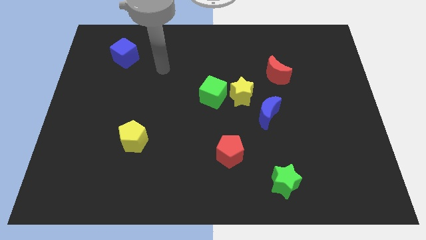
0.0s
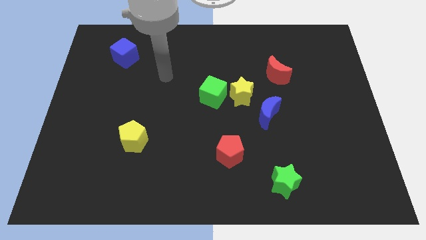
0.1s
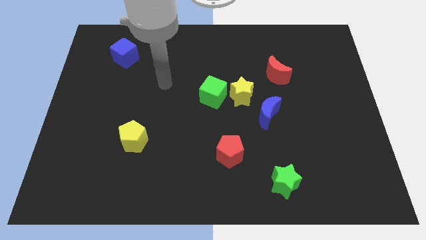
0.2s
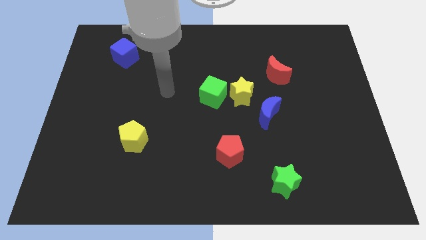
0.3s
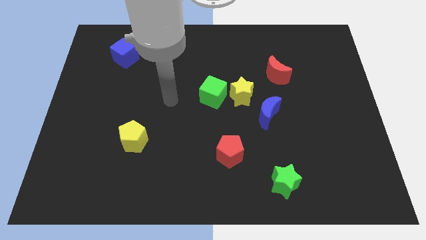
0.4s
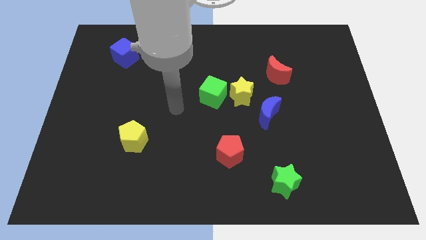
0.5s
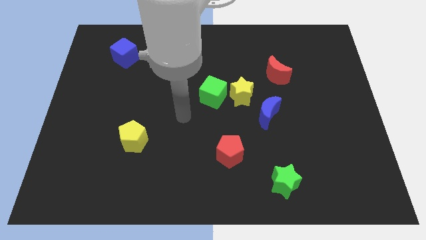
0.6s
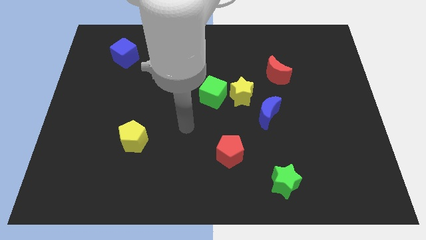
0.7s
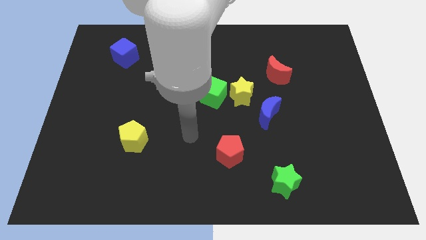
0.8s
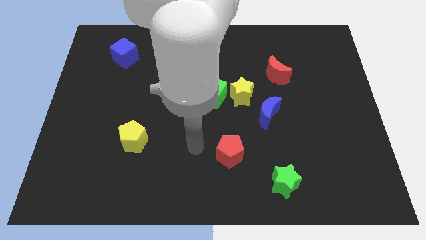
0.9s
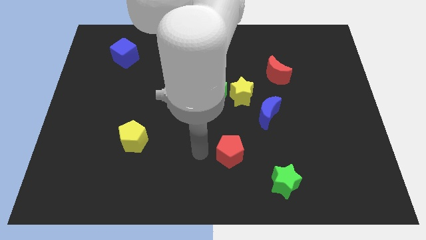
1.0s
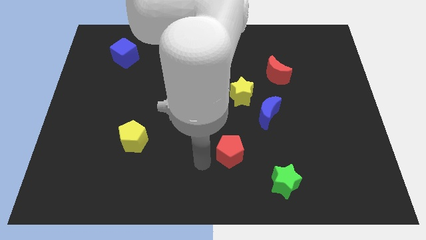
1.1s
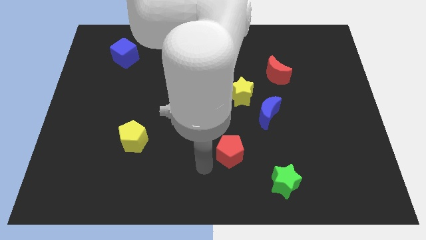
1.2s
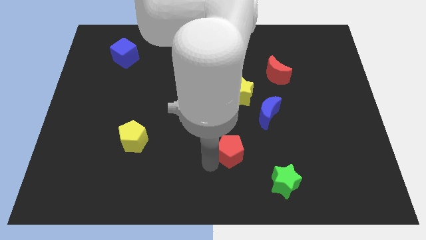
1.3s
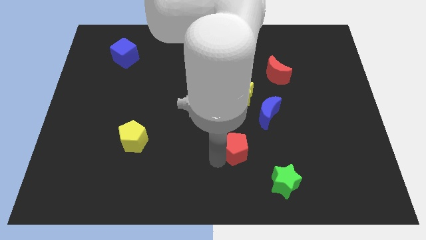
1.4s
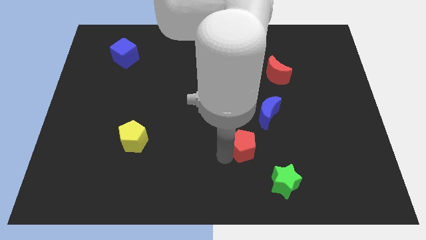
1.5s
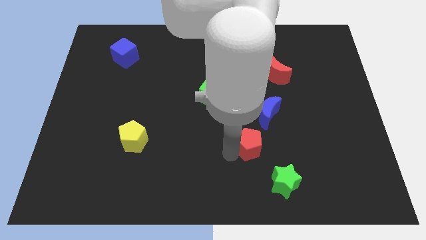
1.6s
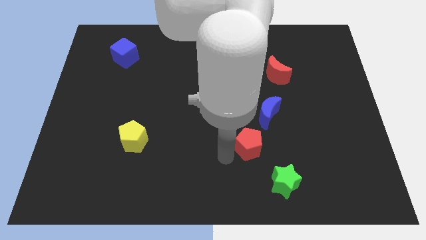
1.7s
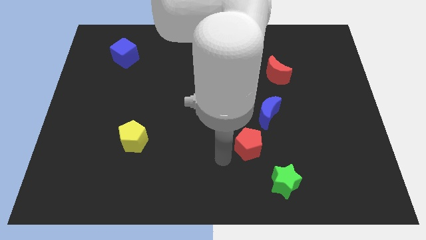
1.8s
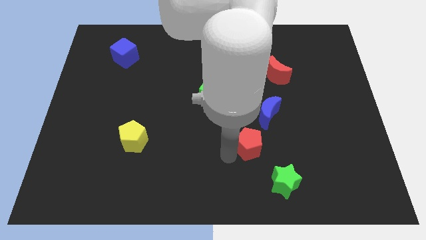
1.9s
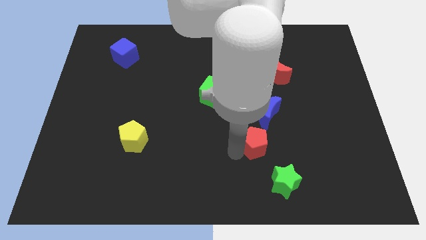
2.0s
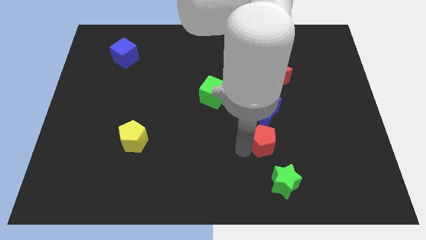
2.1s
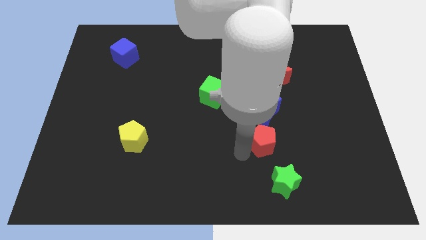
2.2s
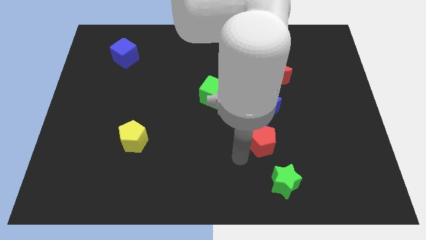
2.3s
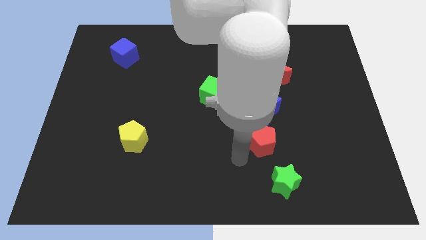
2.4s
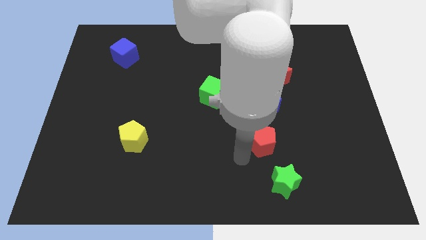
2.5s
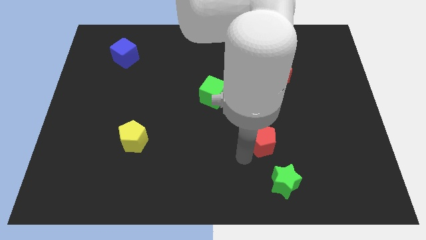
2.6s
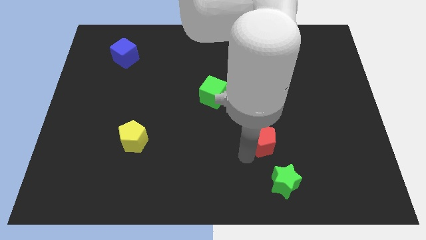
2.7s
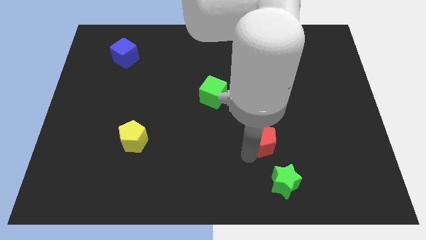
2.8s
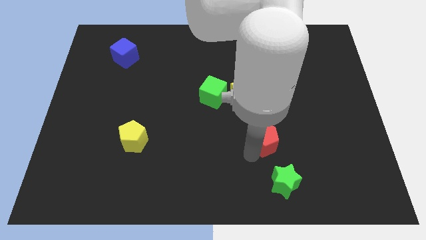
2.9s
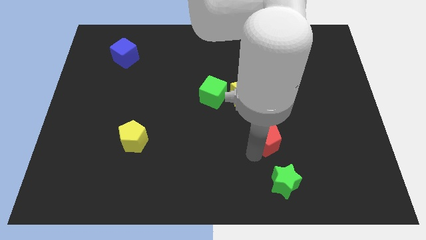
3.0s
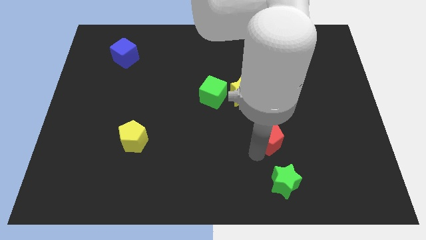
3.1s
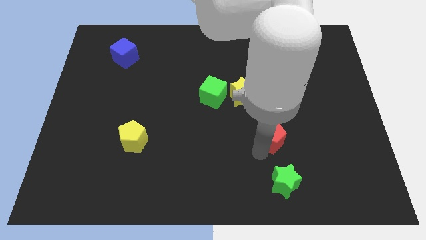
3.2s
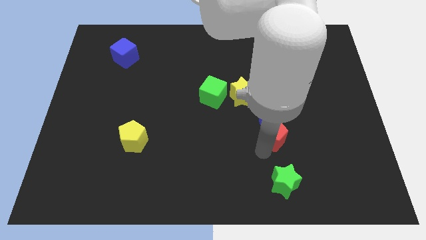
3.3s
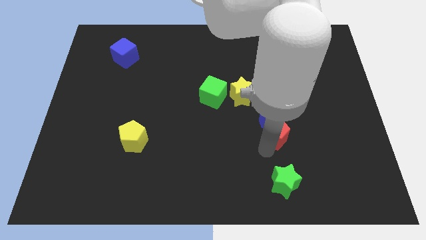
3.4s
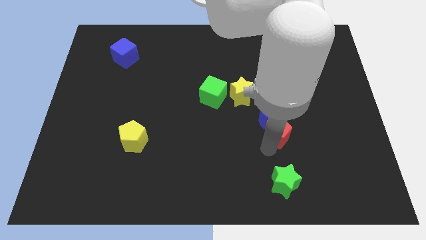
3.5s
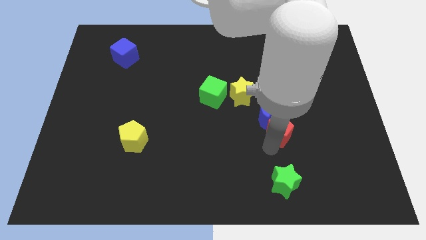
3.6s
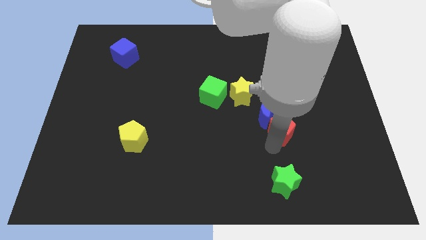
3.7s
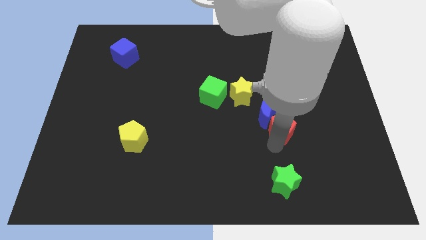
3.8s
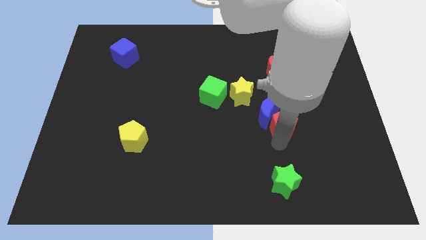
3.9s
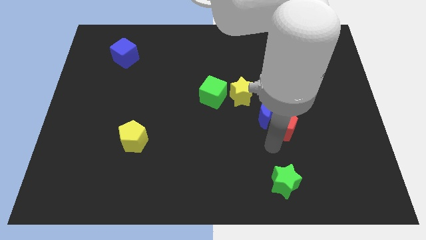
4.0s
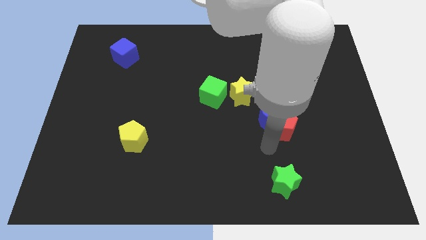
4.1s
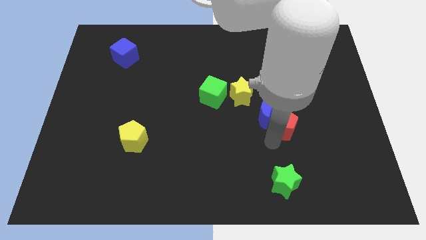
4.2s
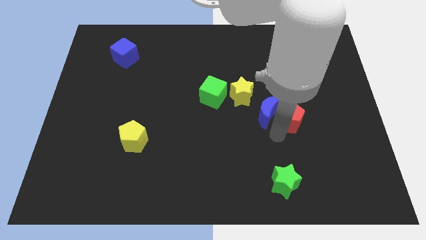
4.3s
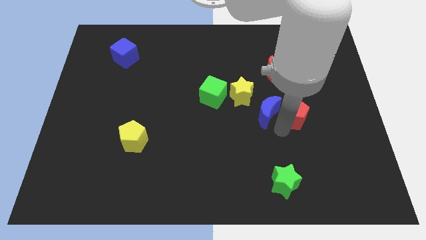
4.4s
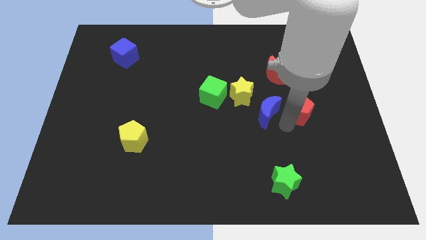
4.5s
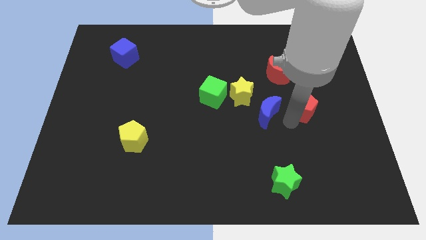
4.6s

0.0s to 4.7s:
move the red pentagon up and to the right diagonally

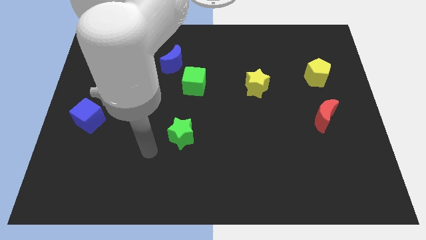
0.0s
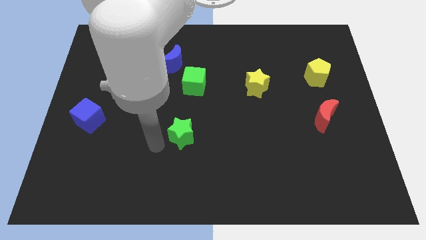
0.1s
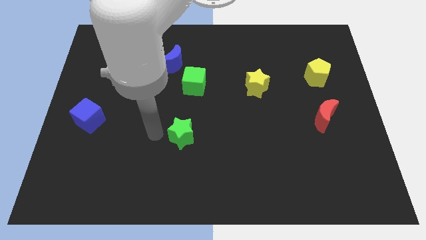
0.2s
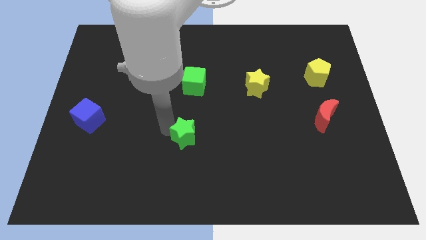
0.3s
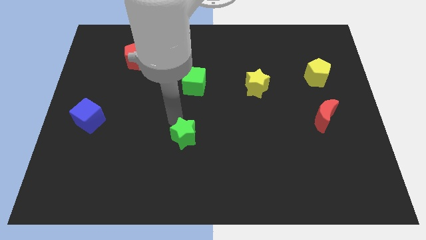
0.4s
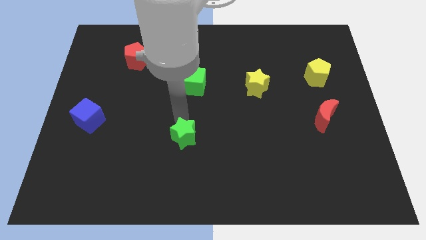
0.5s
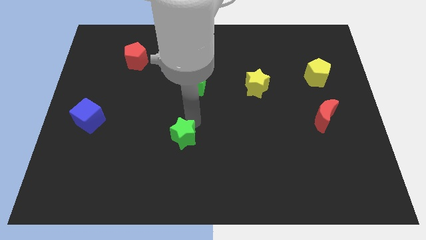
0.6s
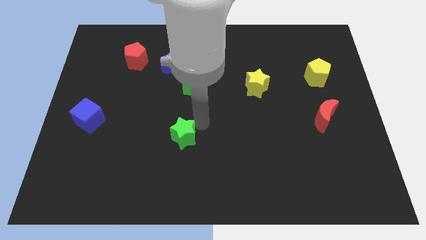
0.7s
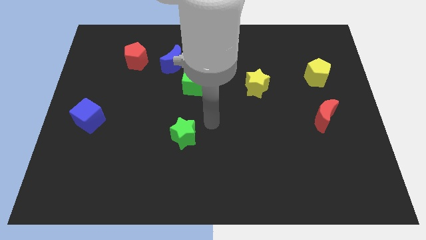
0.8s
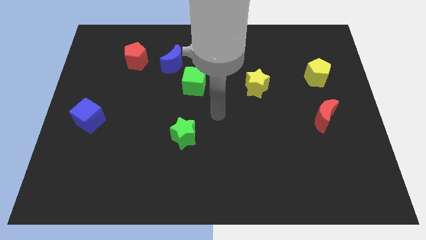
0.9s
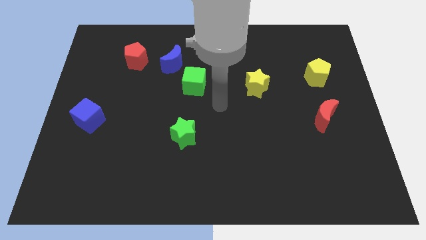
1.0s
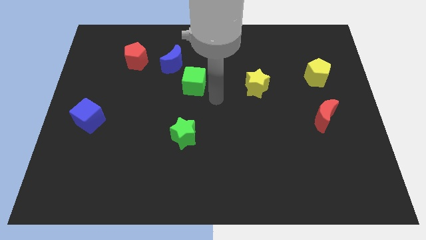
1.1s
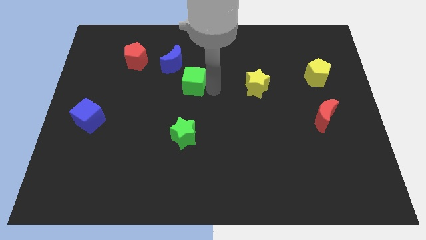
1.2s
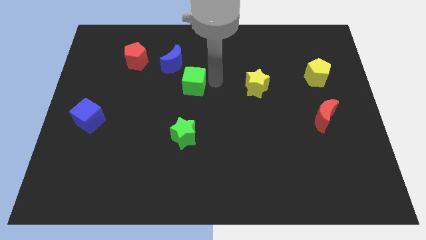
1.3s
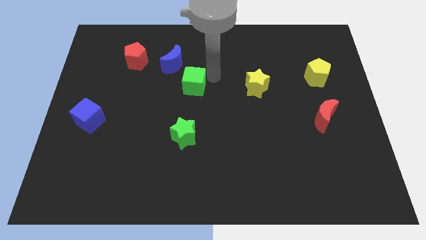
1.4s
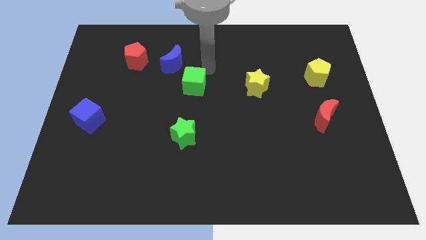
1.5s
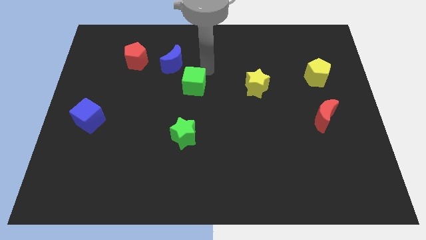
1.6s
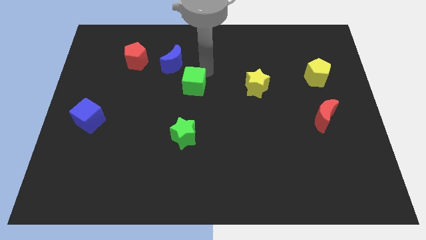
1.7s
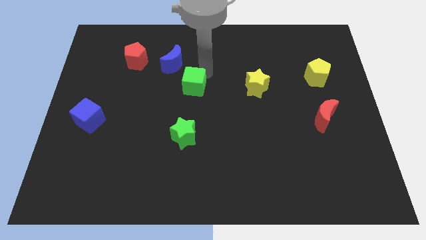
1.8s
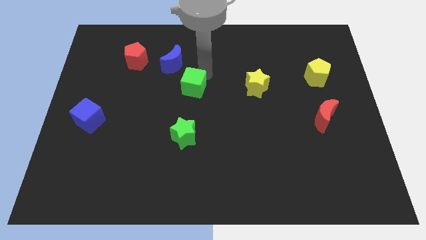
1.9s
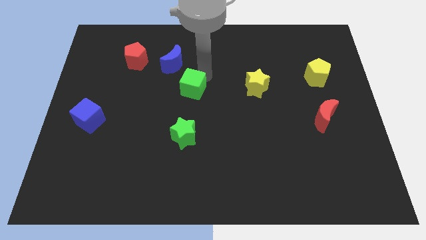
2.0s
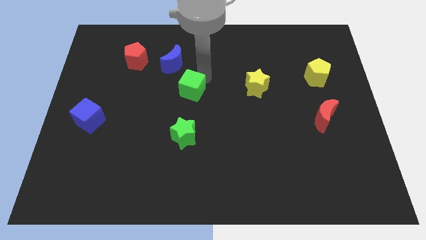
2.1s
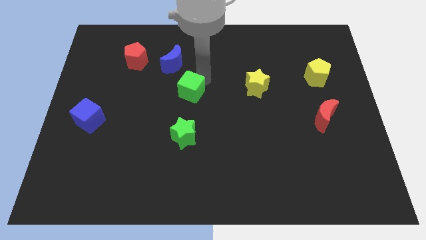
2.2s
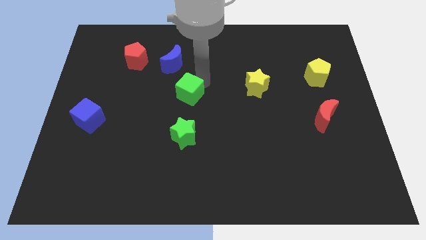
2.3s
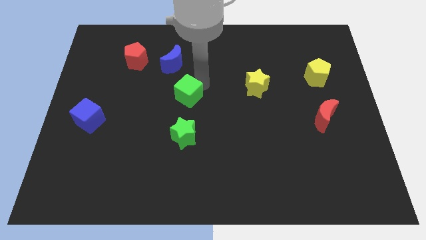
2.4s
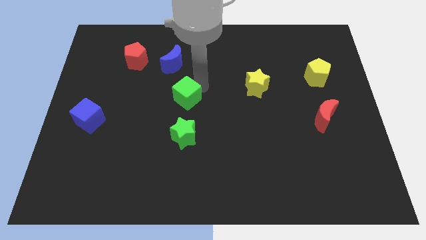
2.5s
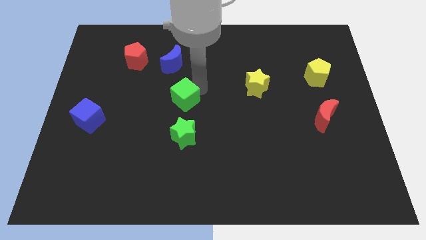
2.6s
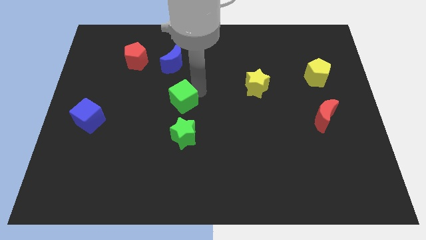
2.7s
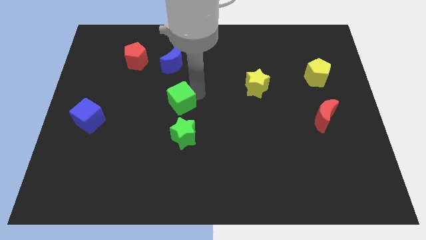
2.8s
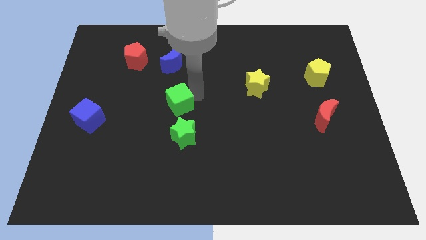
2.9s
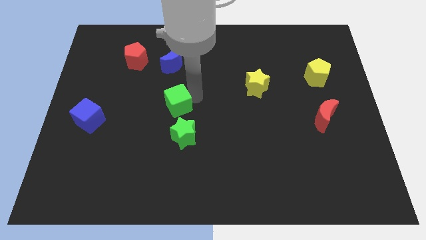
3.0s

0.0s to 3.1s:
slide the green cube down and then to the left somewhat

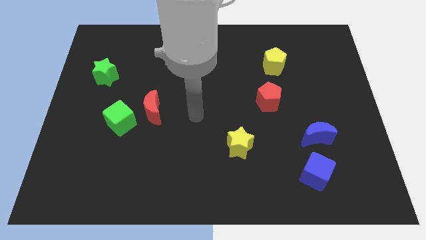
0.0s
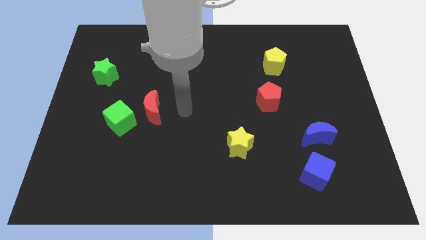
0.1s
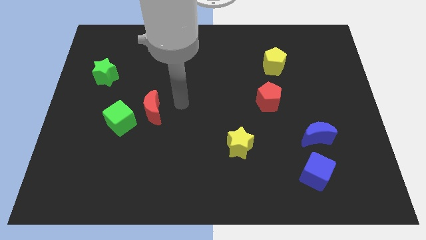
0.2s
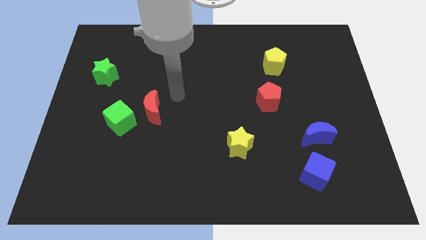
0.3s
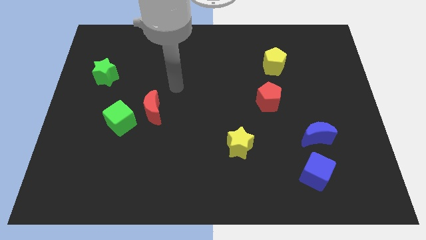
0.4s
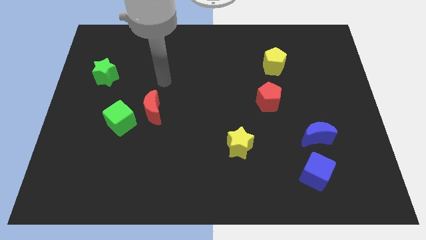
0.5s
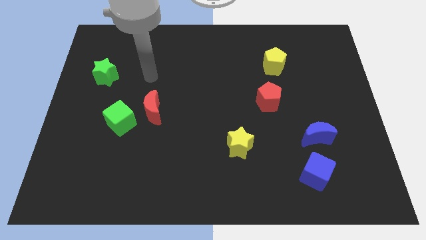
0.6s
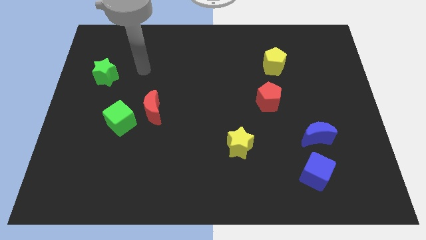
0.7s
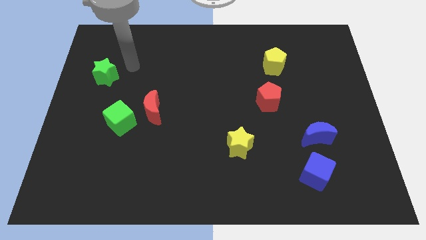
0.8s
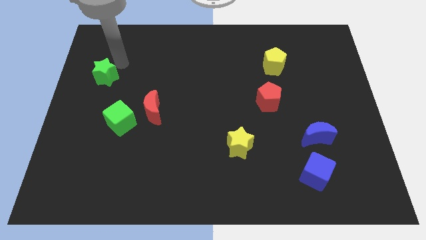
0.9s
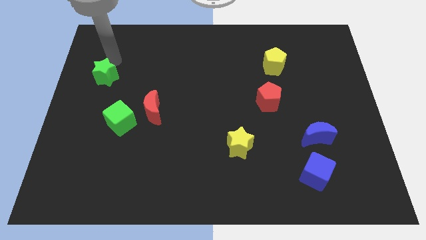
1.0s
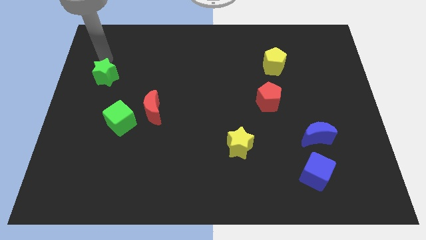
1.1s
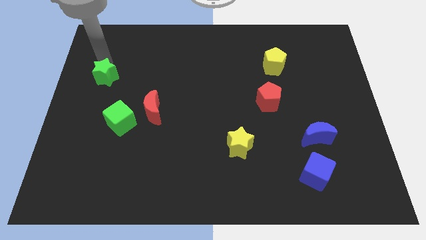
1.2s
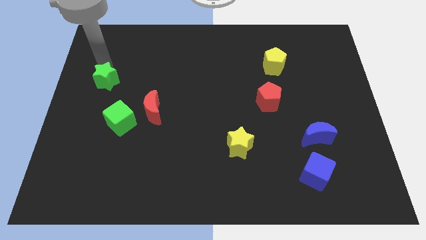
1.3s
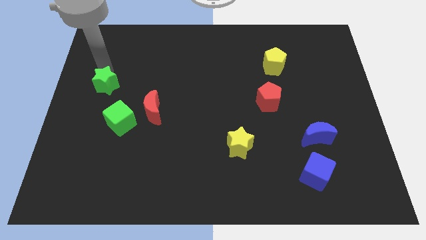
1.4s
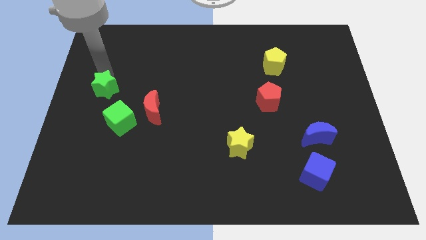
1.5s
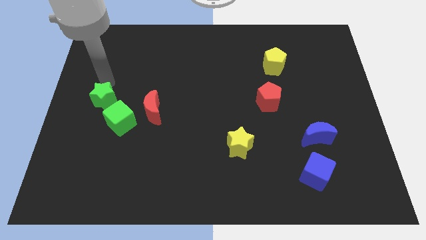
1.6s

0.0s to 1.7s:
slightly move the green star downwards
